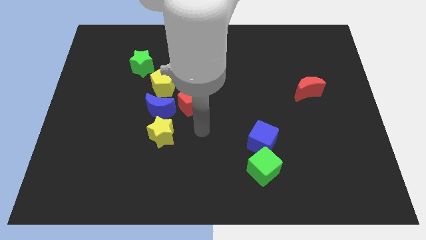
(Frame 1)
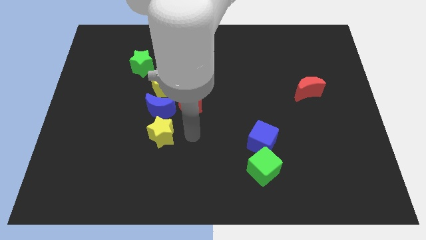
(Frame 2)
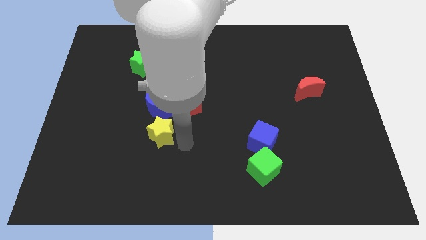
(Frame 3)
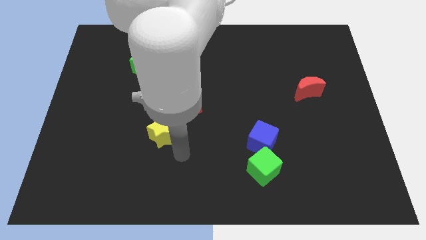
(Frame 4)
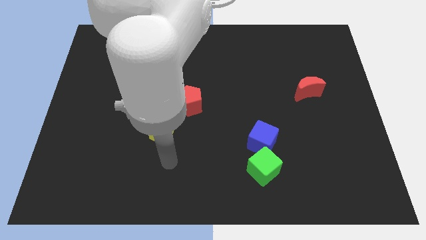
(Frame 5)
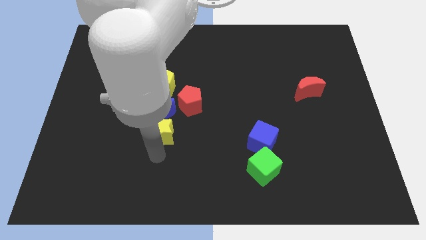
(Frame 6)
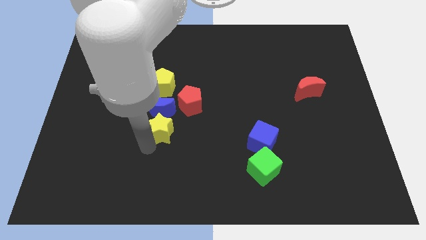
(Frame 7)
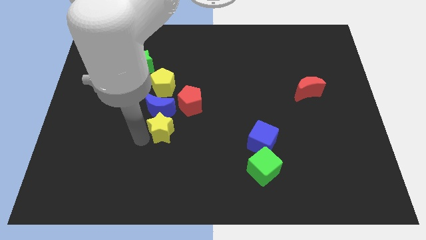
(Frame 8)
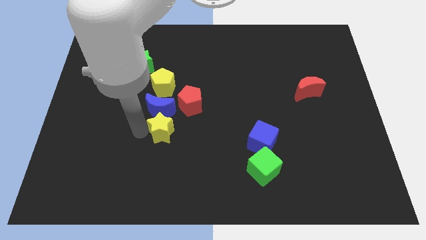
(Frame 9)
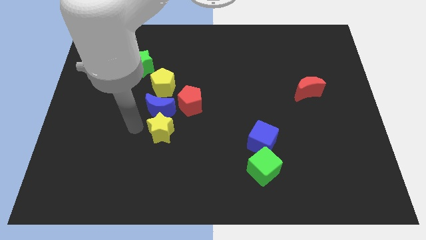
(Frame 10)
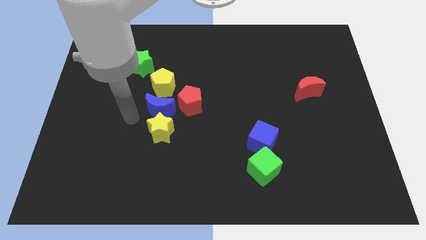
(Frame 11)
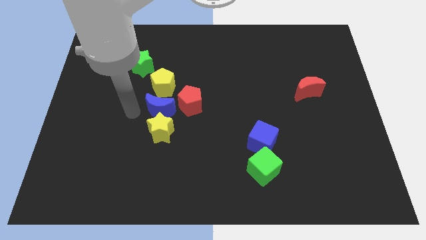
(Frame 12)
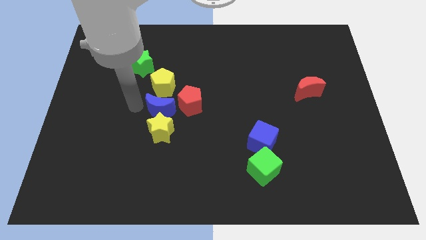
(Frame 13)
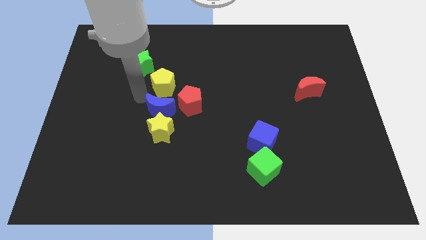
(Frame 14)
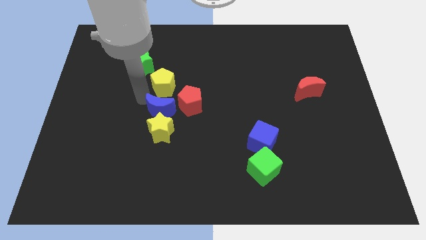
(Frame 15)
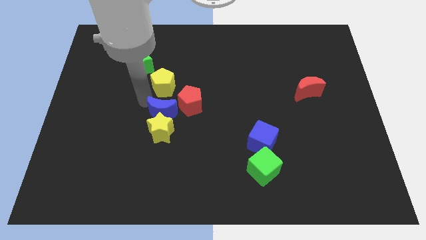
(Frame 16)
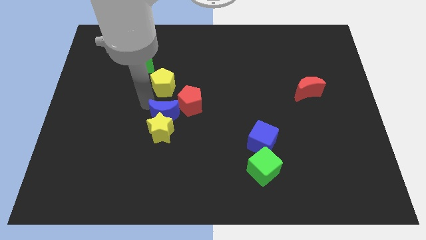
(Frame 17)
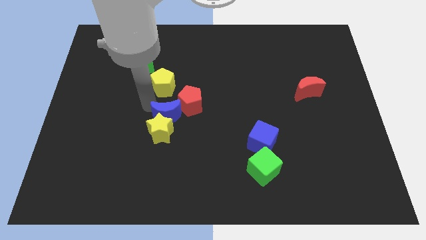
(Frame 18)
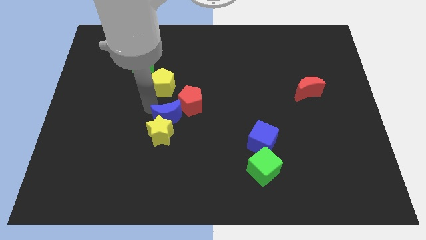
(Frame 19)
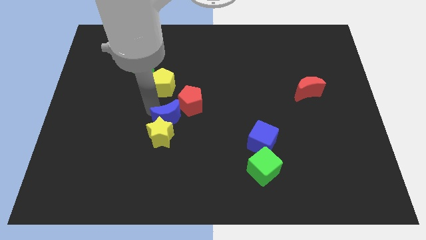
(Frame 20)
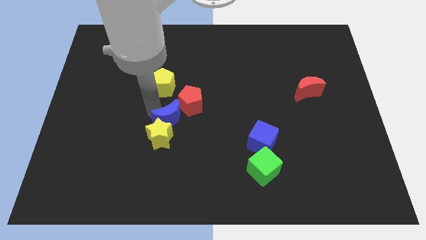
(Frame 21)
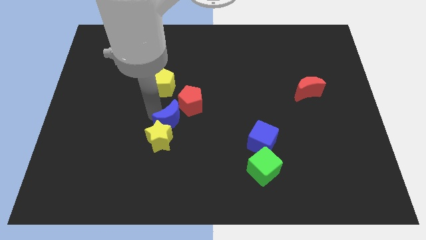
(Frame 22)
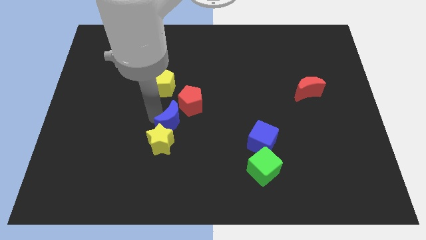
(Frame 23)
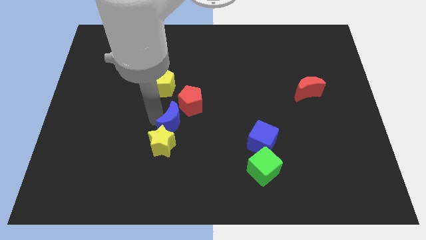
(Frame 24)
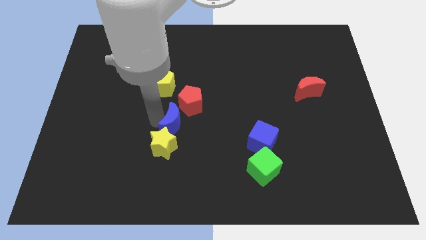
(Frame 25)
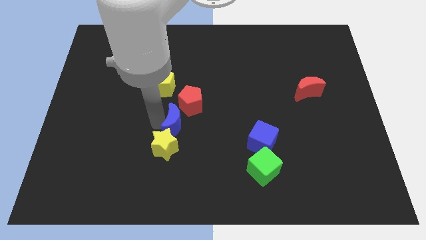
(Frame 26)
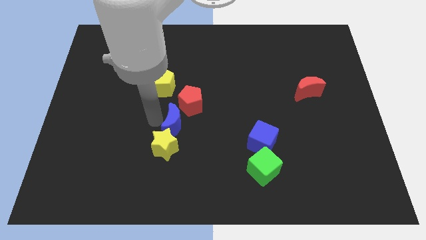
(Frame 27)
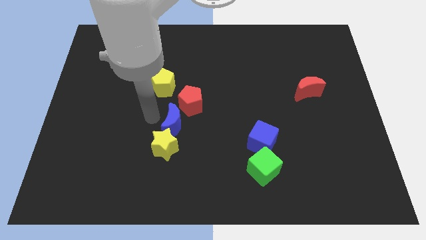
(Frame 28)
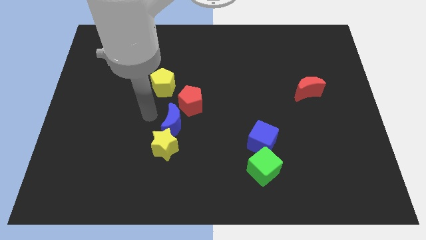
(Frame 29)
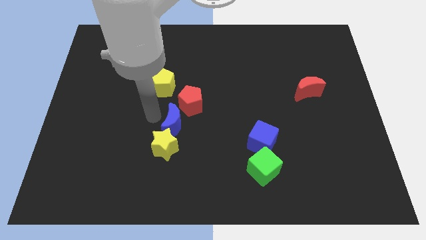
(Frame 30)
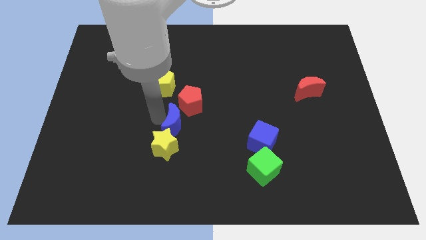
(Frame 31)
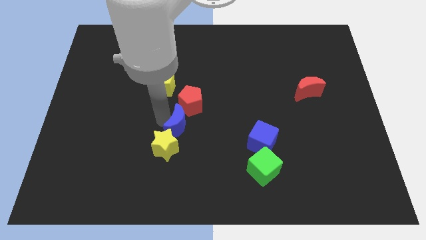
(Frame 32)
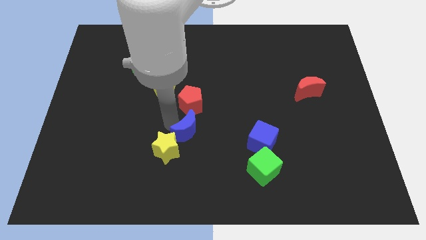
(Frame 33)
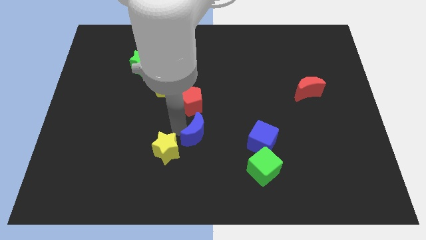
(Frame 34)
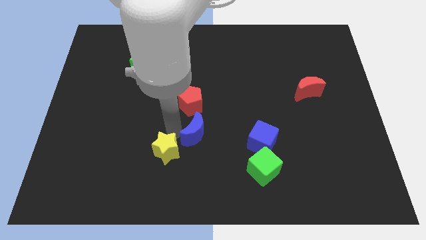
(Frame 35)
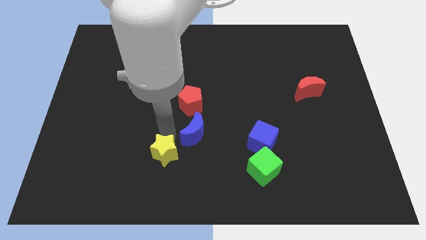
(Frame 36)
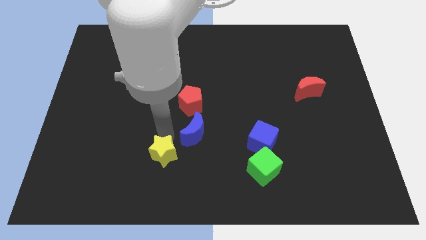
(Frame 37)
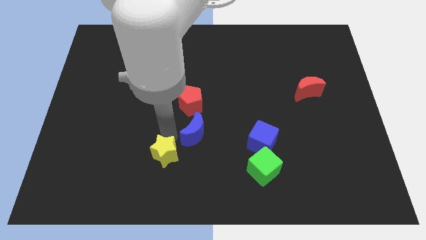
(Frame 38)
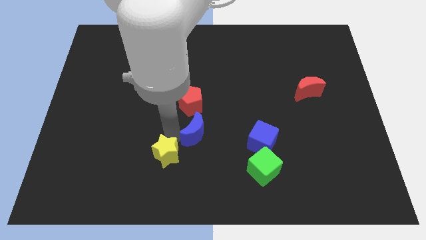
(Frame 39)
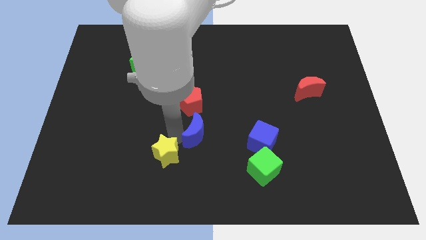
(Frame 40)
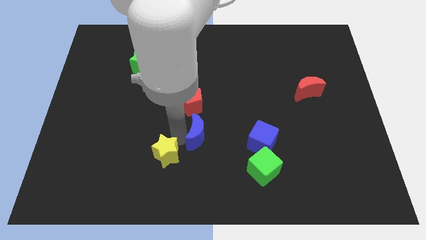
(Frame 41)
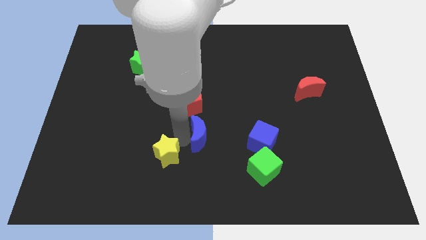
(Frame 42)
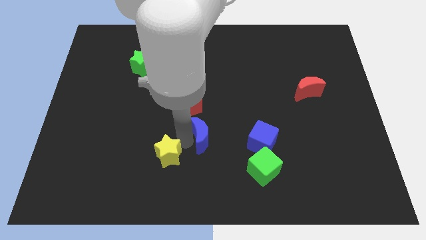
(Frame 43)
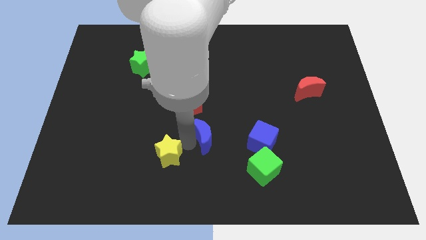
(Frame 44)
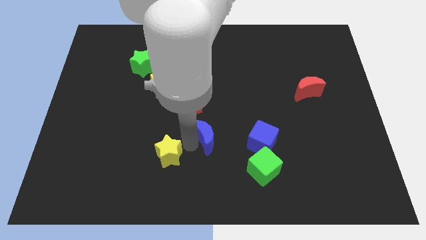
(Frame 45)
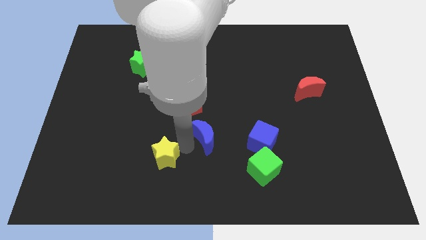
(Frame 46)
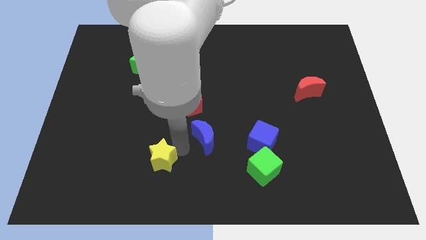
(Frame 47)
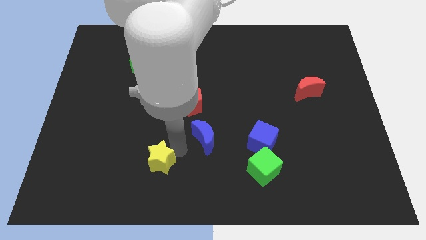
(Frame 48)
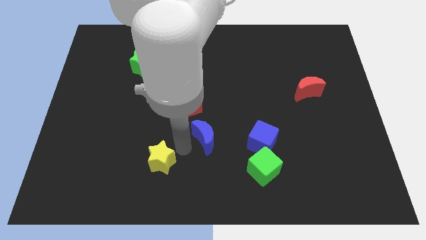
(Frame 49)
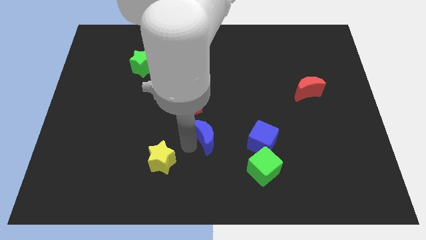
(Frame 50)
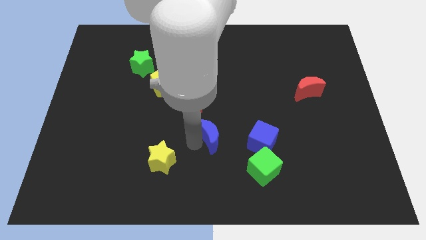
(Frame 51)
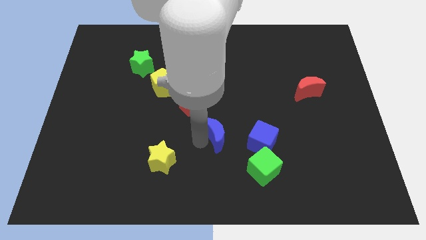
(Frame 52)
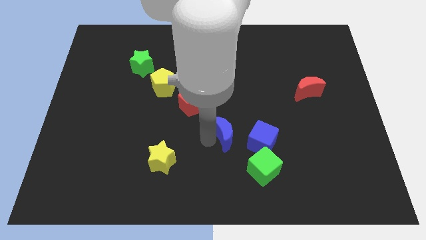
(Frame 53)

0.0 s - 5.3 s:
slide the blue moon diagonally up and to the left of the blue cube

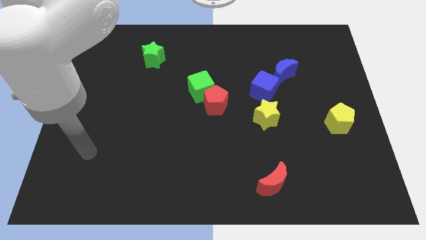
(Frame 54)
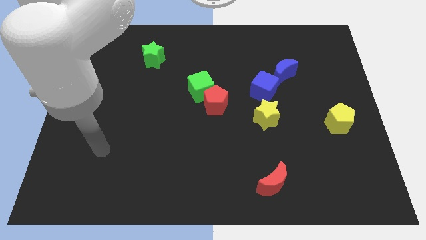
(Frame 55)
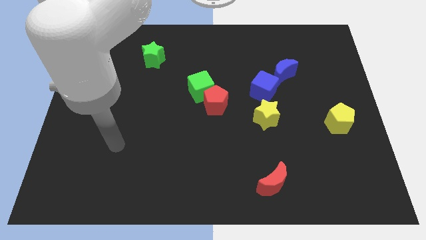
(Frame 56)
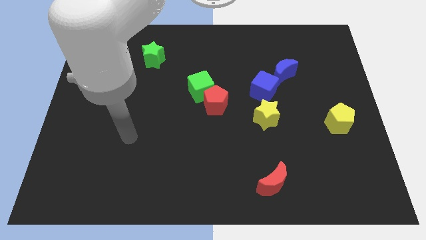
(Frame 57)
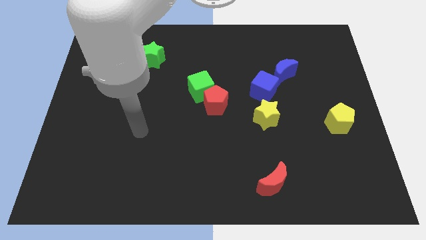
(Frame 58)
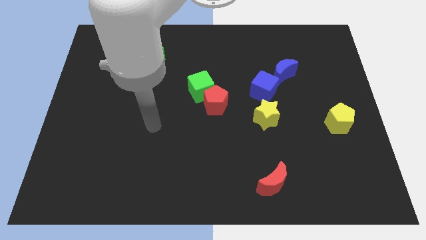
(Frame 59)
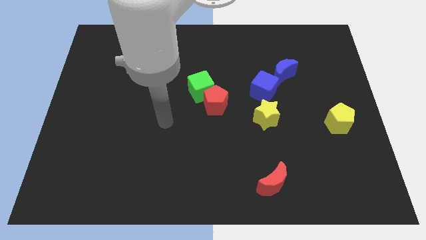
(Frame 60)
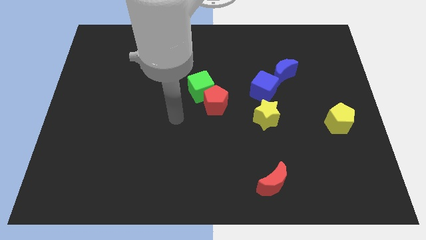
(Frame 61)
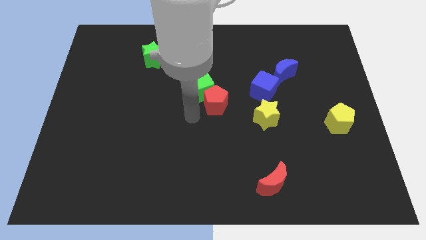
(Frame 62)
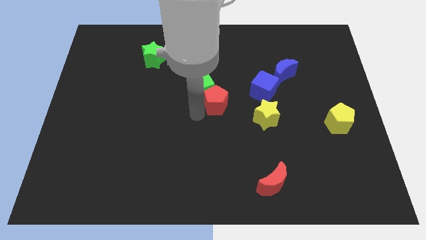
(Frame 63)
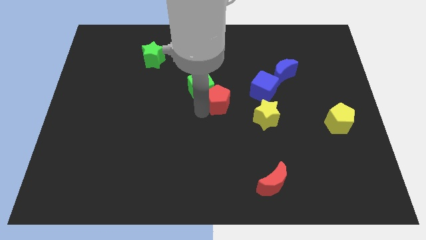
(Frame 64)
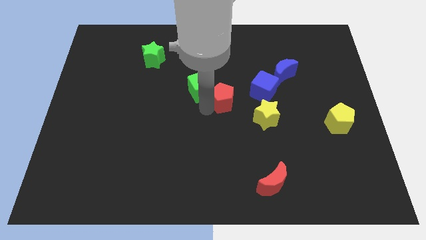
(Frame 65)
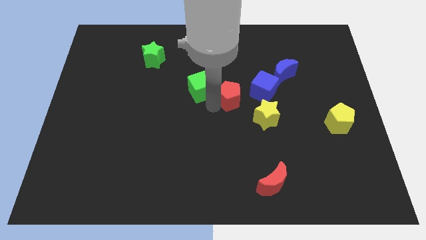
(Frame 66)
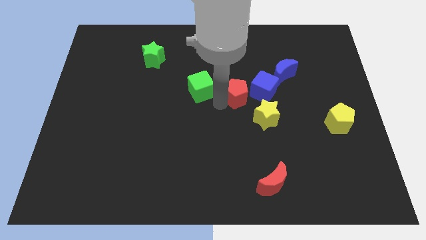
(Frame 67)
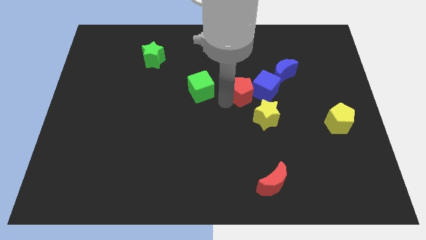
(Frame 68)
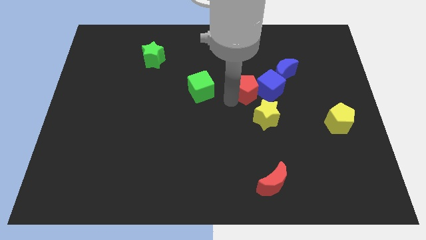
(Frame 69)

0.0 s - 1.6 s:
put the red pentagon to the top side of the yellow star
